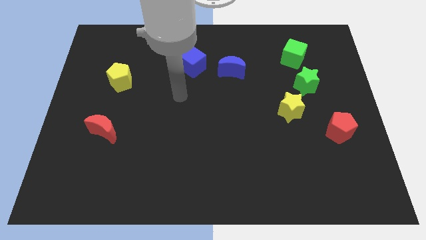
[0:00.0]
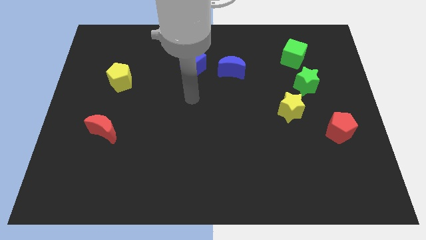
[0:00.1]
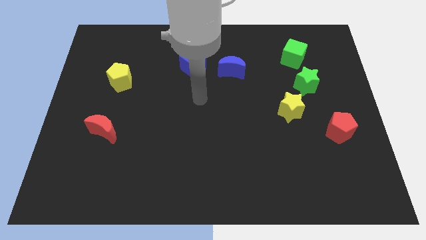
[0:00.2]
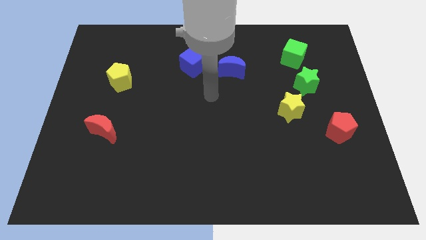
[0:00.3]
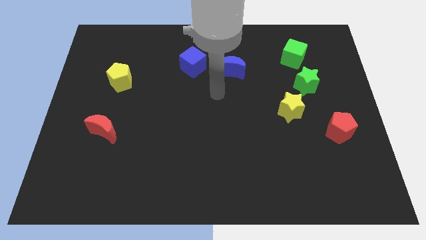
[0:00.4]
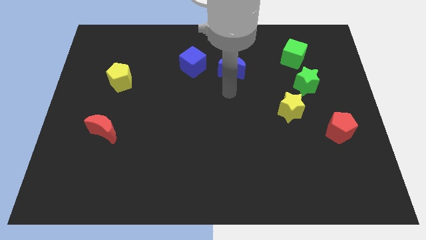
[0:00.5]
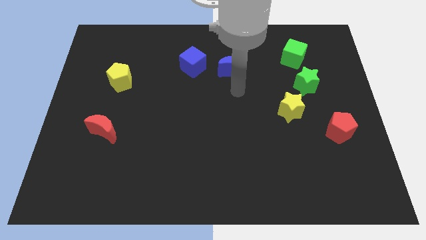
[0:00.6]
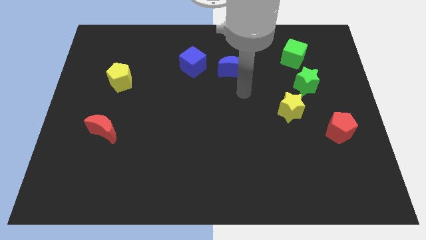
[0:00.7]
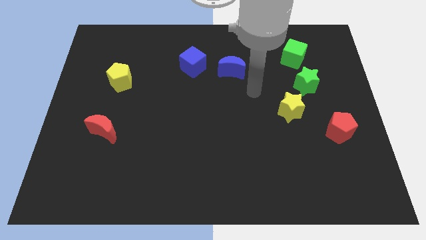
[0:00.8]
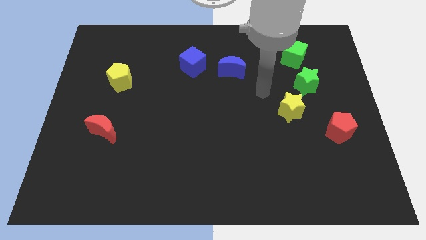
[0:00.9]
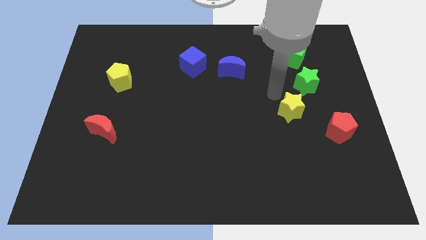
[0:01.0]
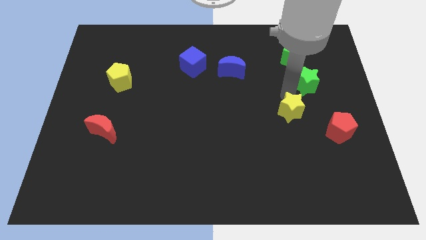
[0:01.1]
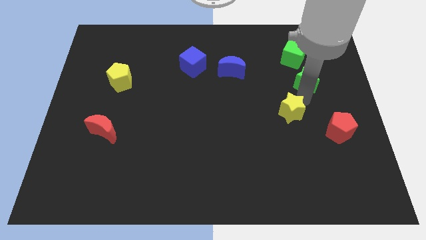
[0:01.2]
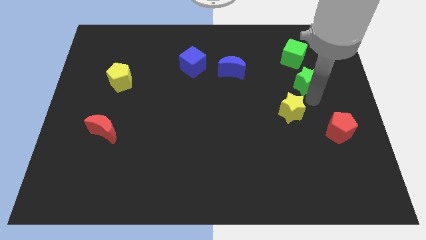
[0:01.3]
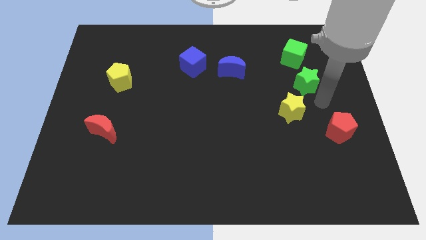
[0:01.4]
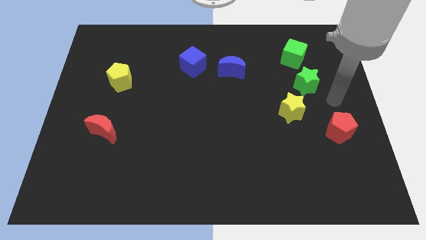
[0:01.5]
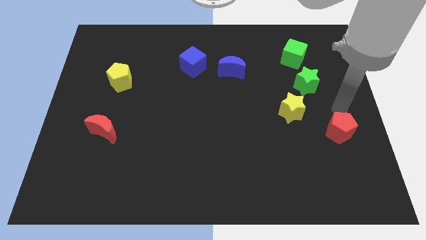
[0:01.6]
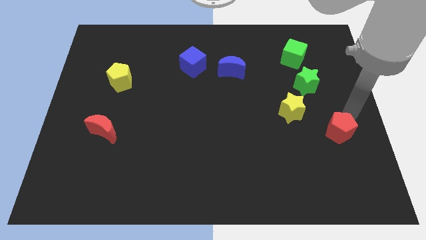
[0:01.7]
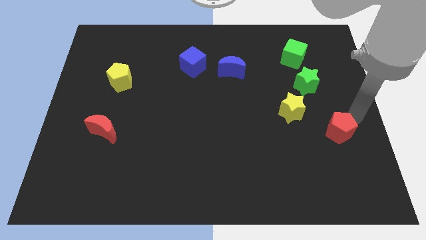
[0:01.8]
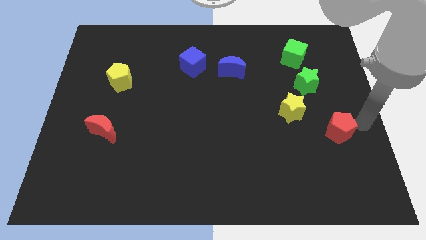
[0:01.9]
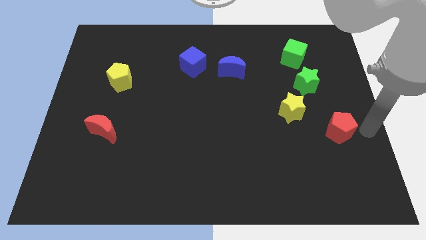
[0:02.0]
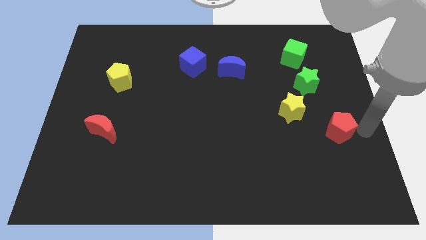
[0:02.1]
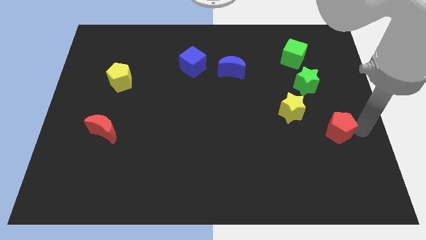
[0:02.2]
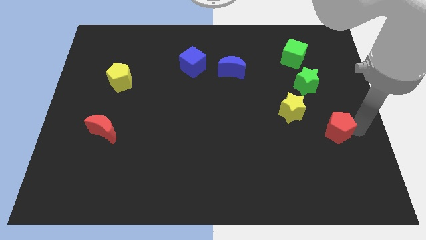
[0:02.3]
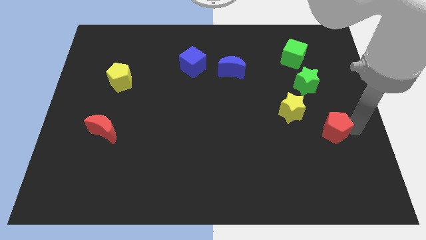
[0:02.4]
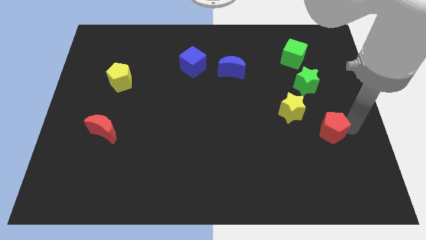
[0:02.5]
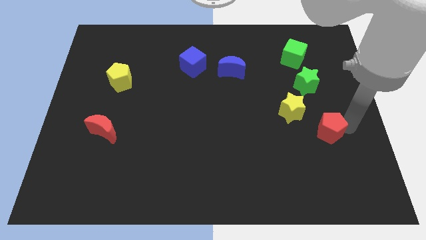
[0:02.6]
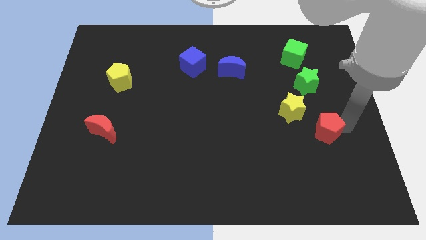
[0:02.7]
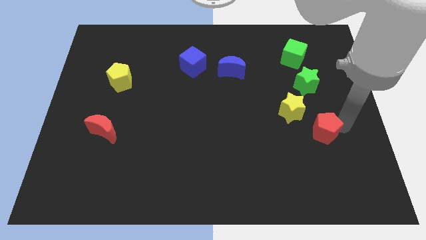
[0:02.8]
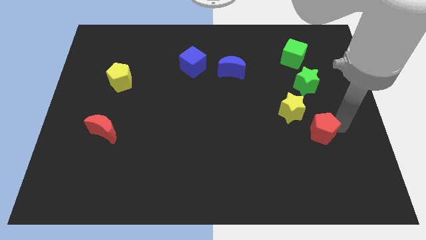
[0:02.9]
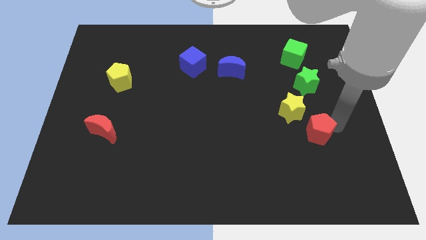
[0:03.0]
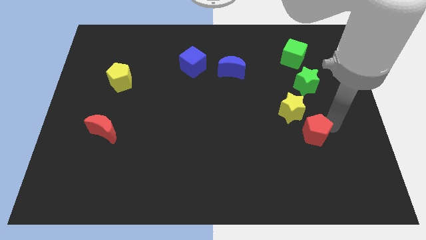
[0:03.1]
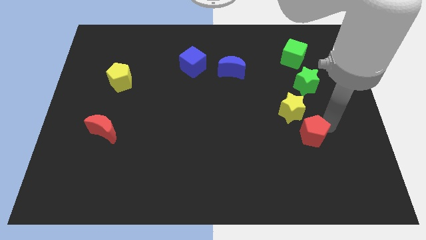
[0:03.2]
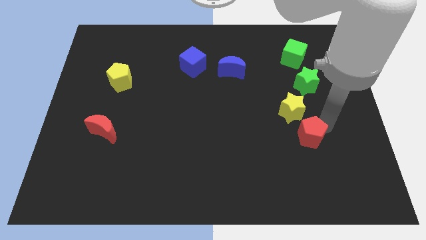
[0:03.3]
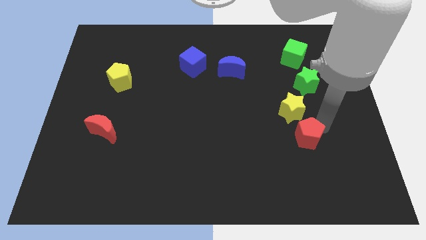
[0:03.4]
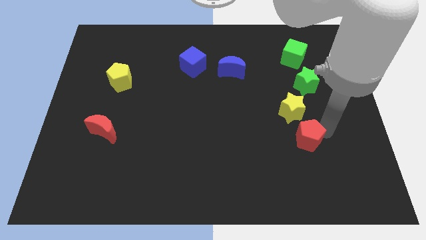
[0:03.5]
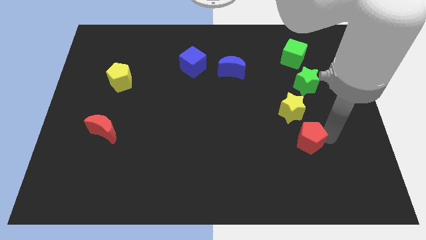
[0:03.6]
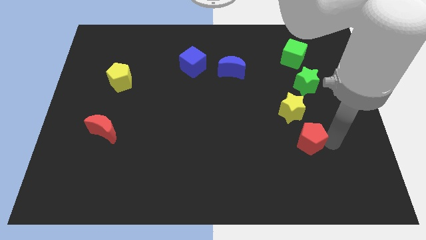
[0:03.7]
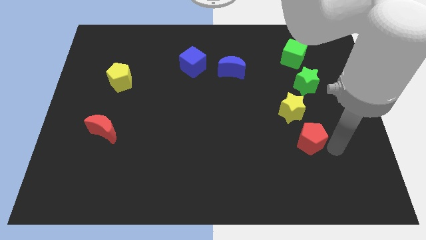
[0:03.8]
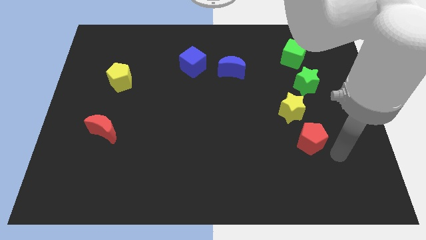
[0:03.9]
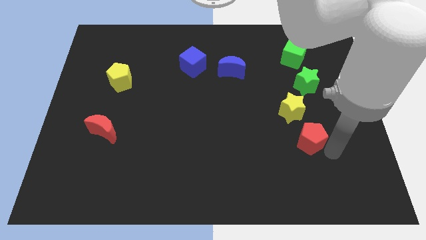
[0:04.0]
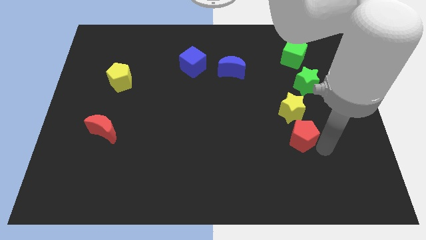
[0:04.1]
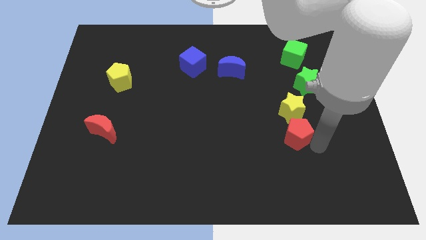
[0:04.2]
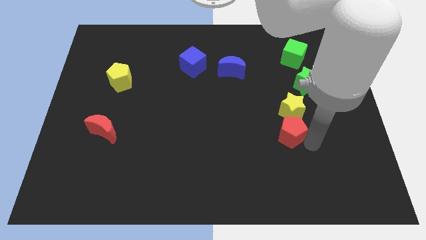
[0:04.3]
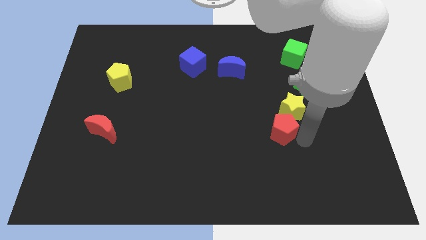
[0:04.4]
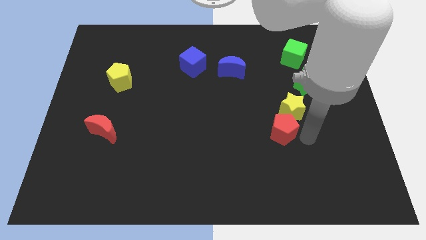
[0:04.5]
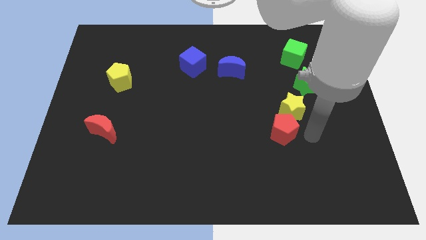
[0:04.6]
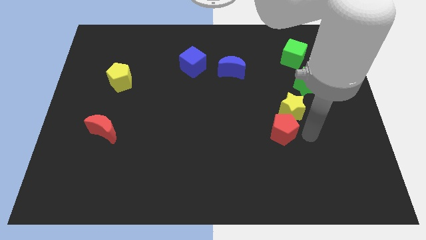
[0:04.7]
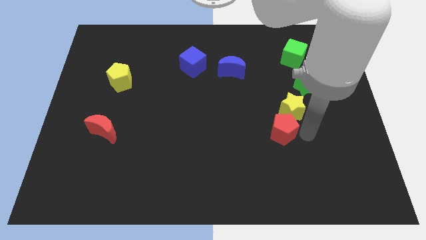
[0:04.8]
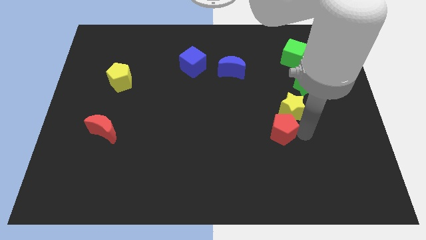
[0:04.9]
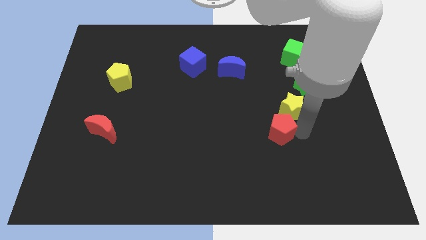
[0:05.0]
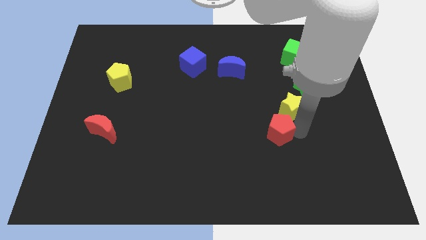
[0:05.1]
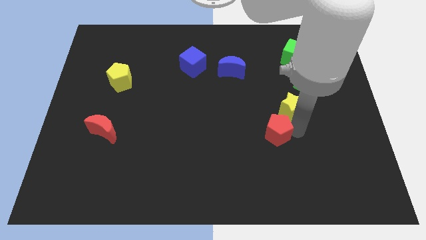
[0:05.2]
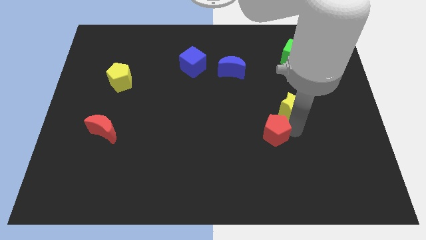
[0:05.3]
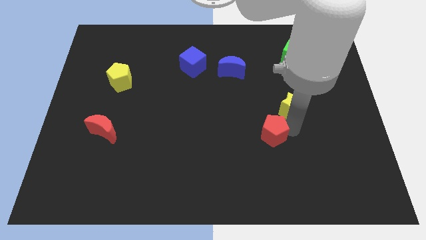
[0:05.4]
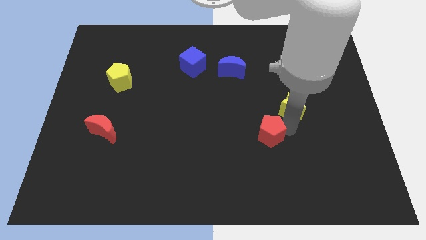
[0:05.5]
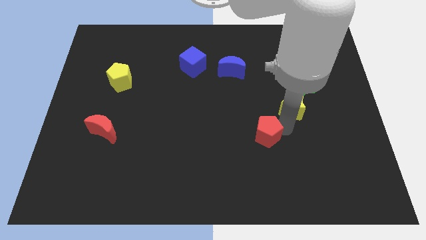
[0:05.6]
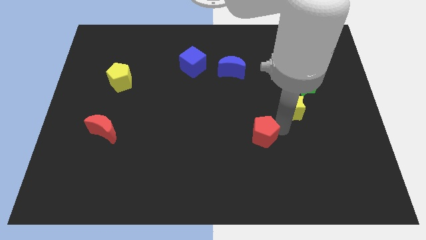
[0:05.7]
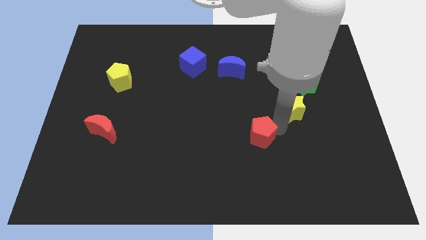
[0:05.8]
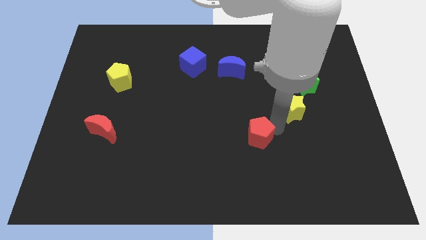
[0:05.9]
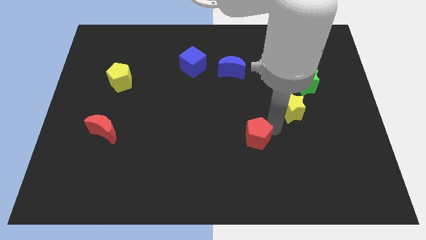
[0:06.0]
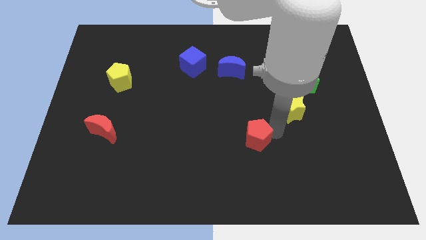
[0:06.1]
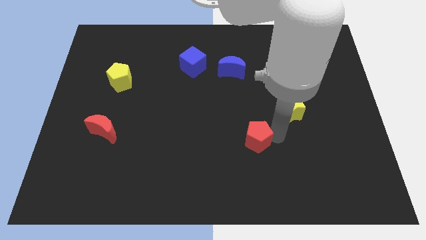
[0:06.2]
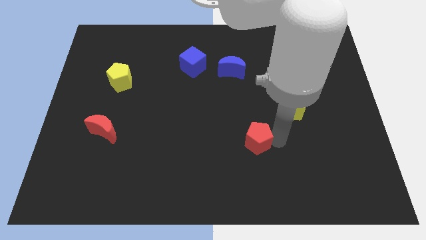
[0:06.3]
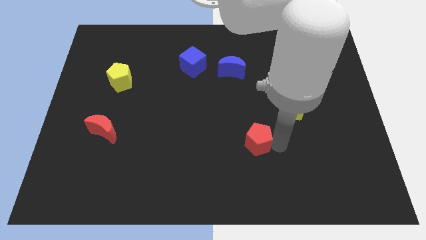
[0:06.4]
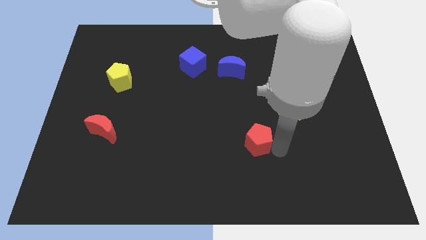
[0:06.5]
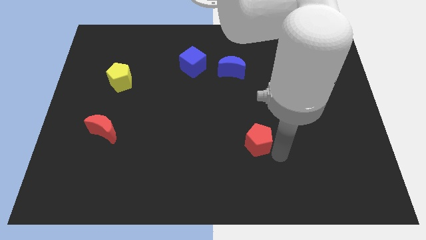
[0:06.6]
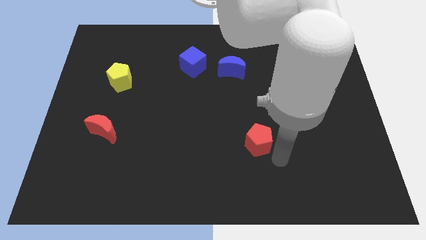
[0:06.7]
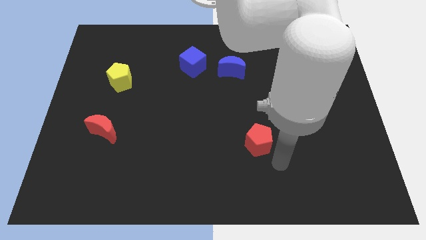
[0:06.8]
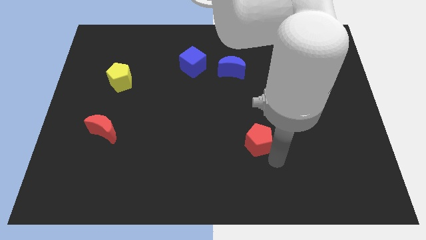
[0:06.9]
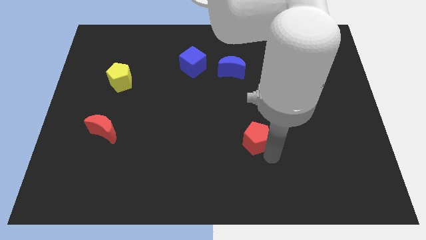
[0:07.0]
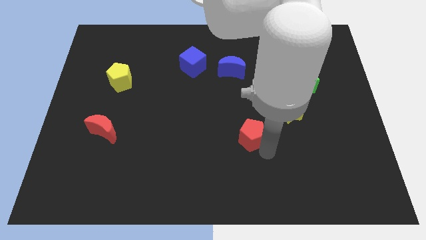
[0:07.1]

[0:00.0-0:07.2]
slide the red pentagon left

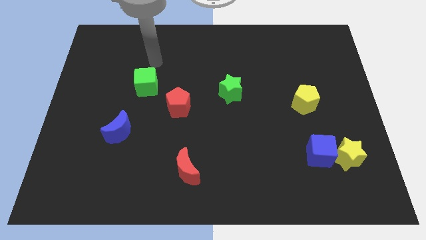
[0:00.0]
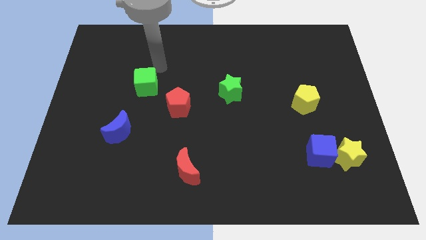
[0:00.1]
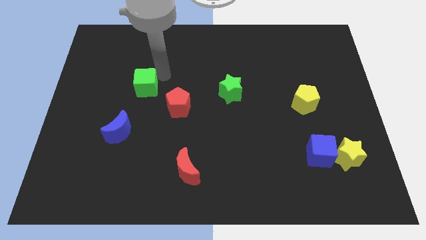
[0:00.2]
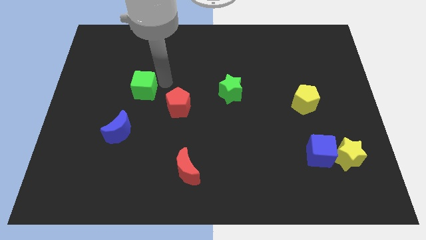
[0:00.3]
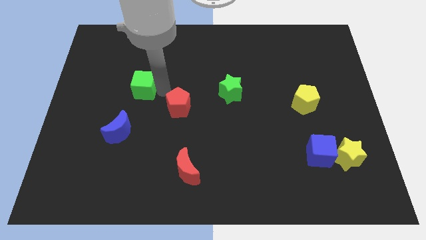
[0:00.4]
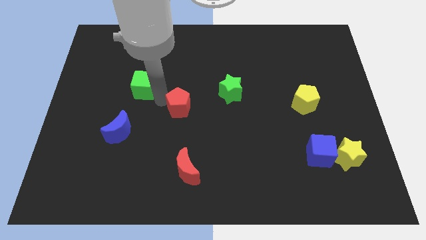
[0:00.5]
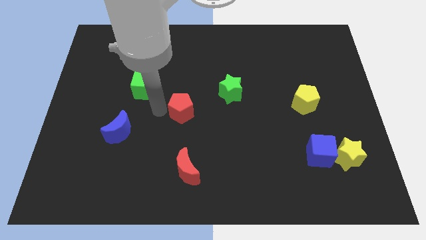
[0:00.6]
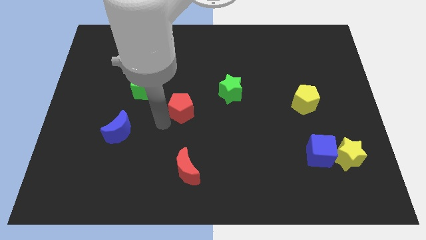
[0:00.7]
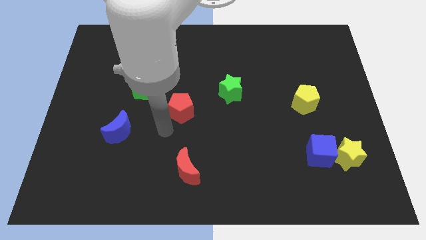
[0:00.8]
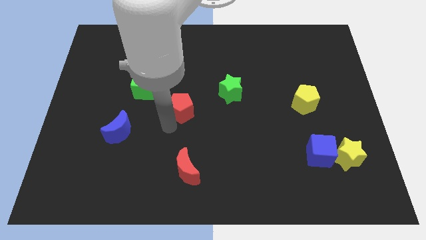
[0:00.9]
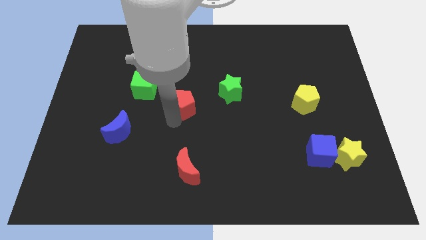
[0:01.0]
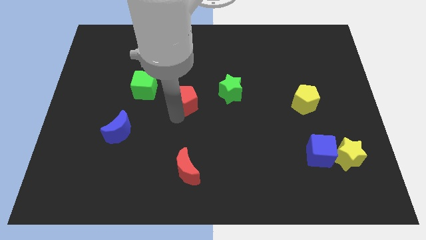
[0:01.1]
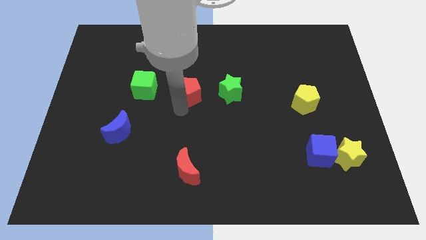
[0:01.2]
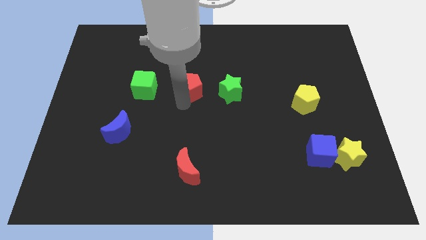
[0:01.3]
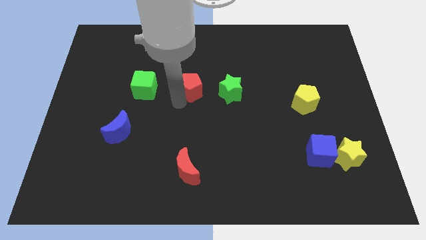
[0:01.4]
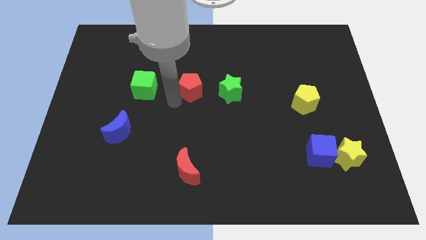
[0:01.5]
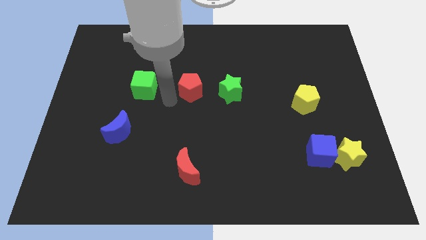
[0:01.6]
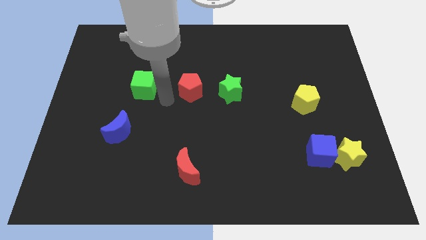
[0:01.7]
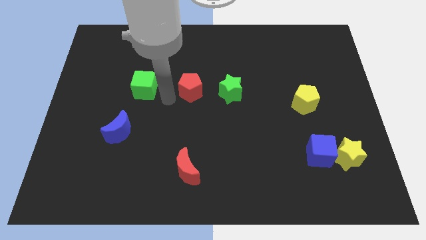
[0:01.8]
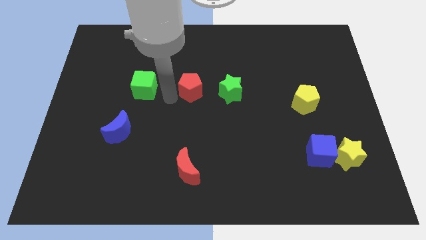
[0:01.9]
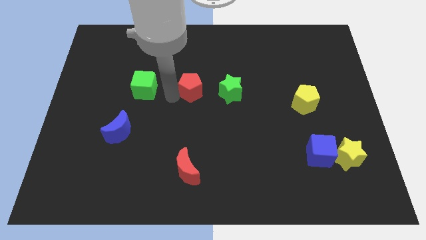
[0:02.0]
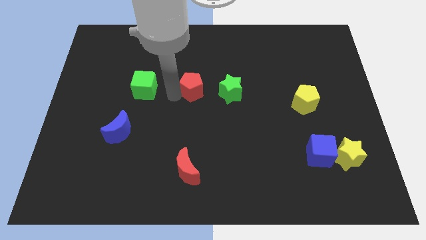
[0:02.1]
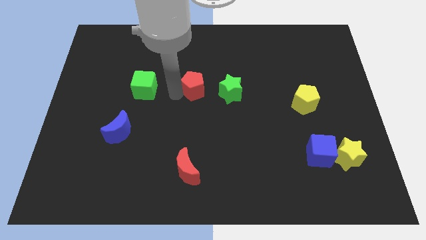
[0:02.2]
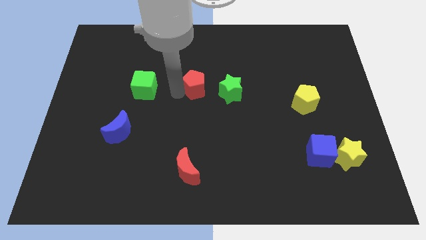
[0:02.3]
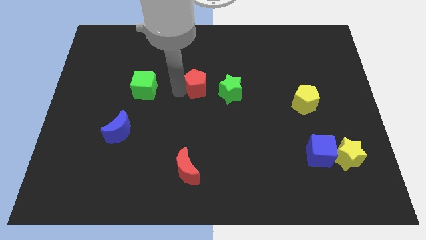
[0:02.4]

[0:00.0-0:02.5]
slide the red pentagon slightly diagonally upwards and right
